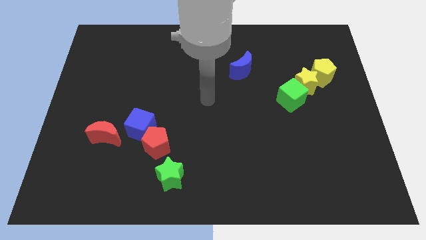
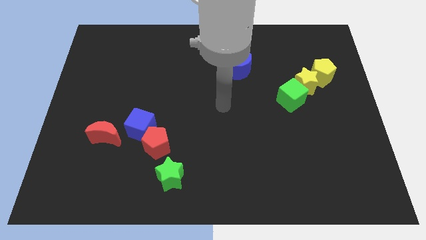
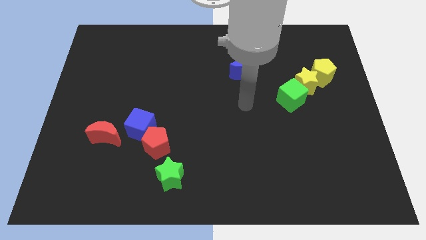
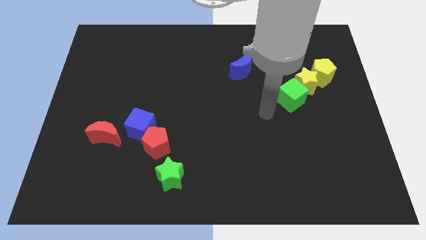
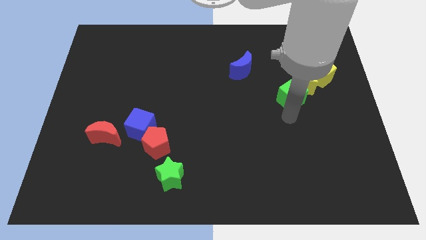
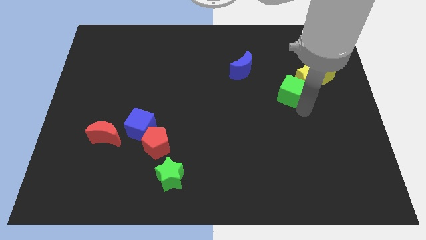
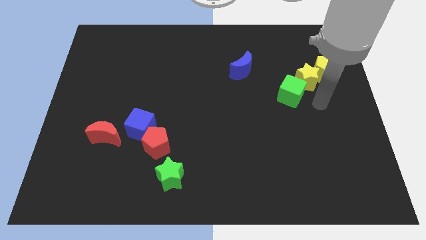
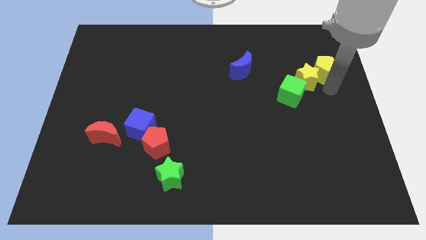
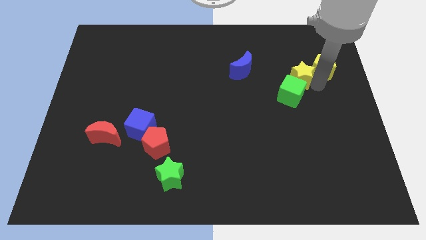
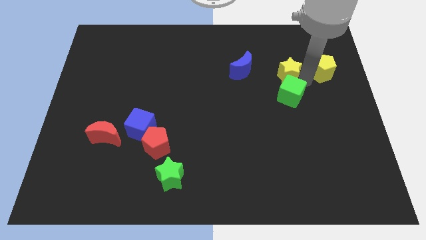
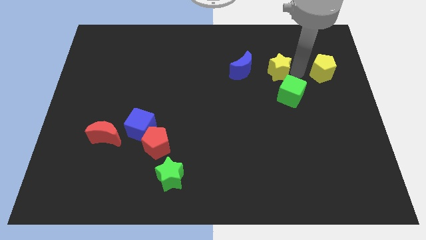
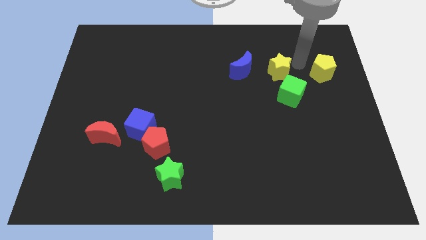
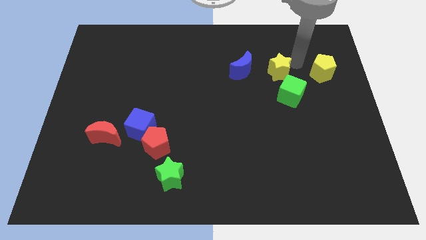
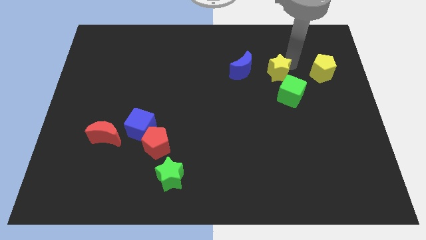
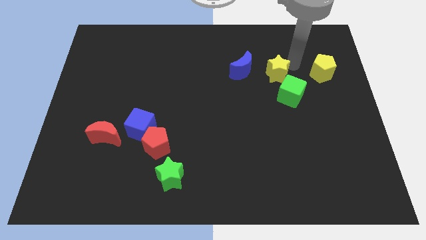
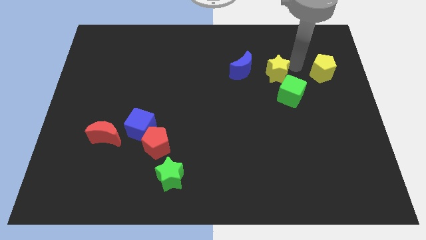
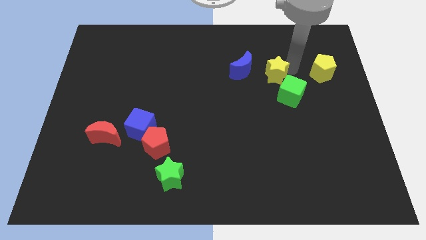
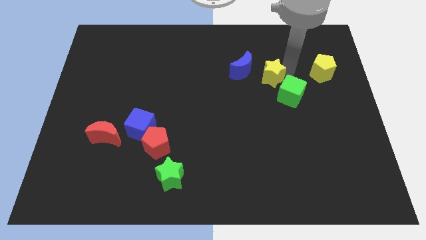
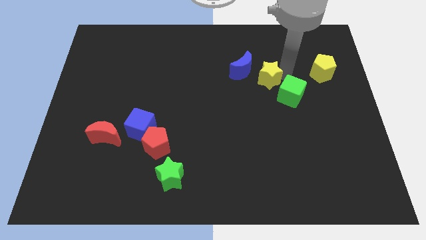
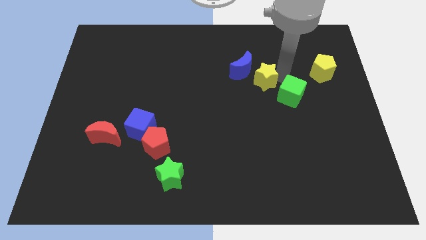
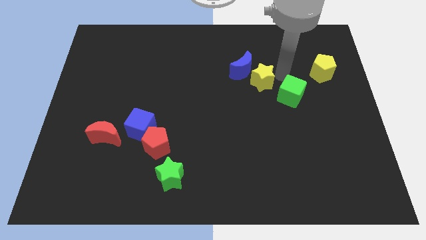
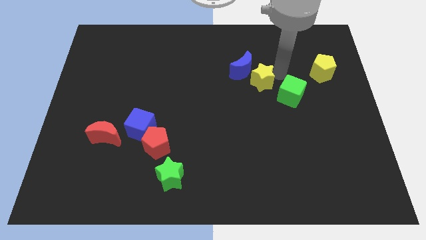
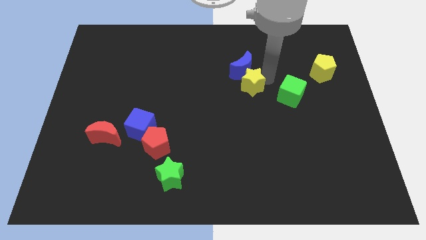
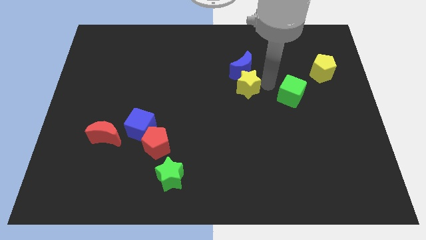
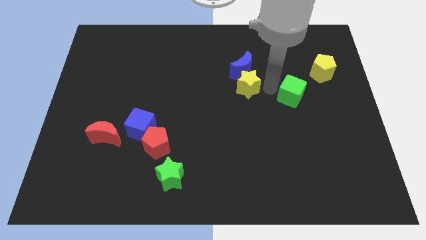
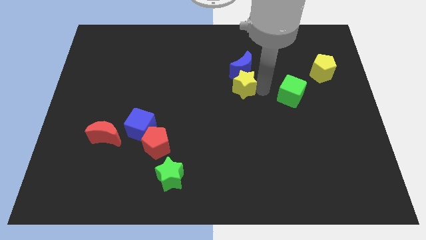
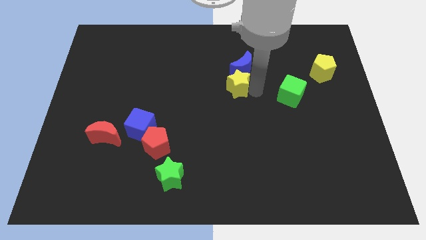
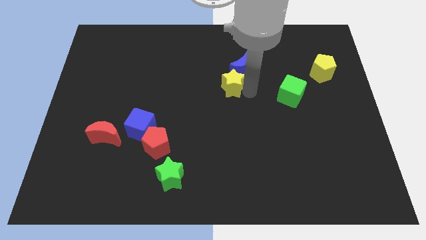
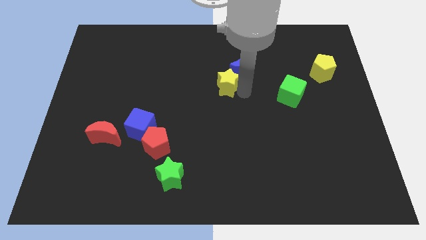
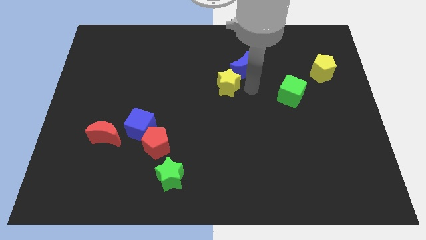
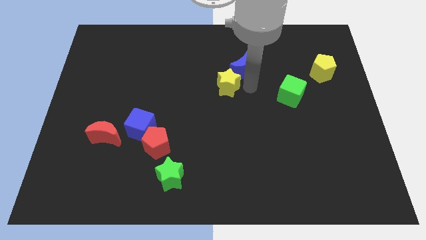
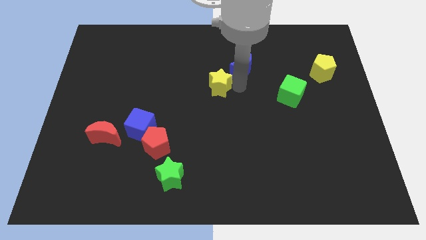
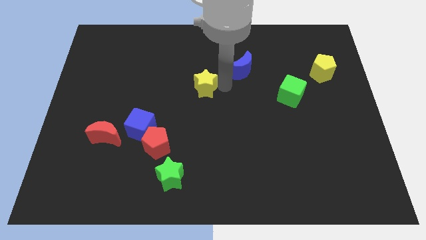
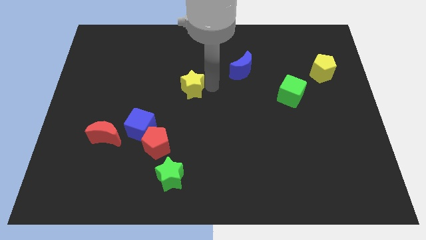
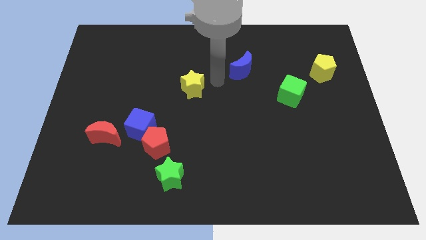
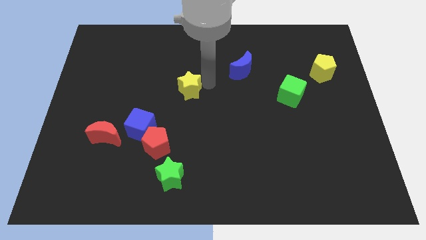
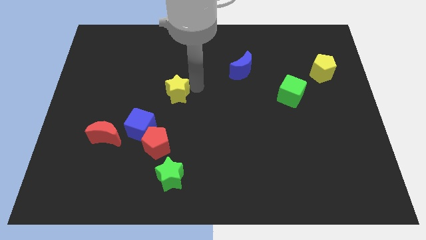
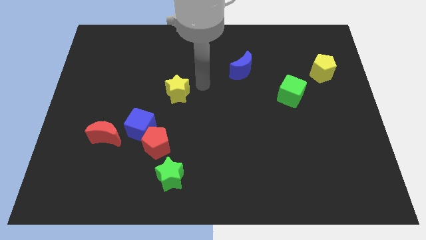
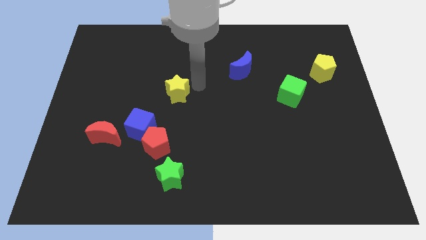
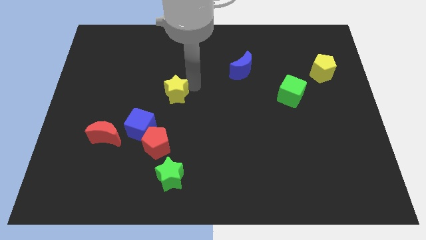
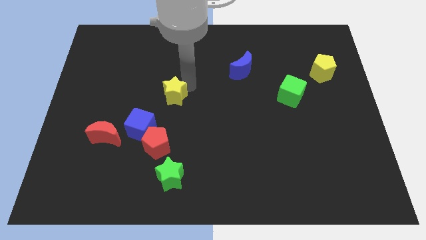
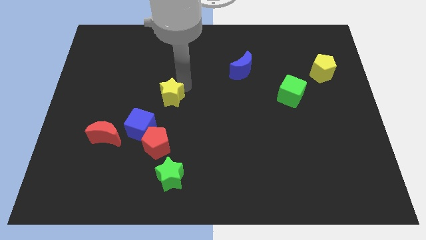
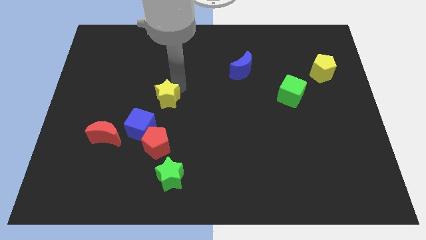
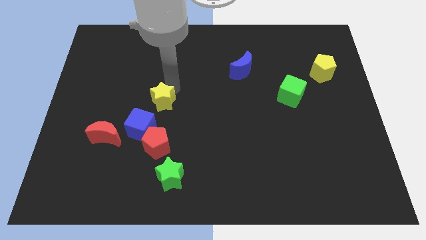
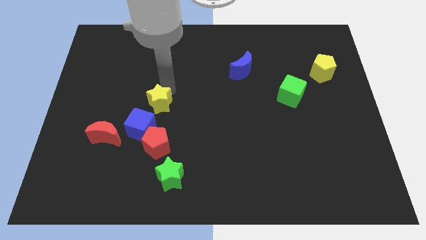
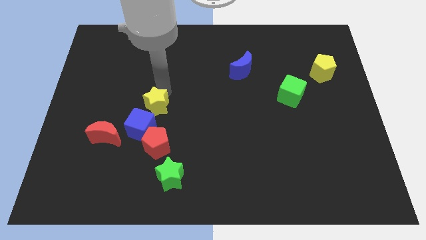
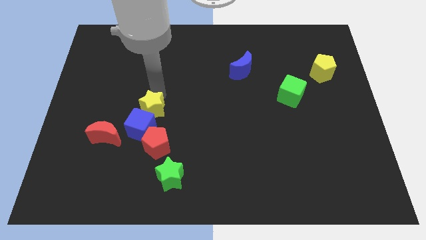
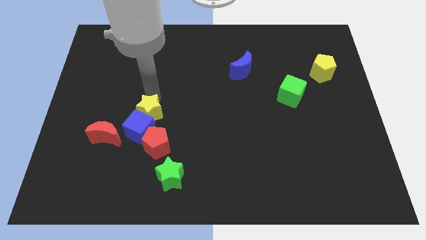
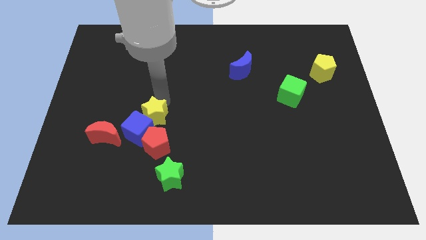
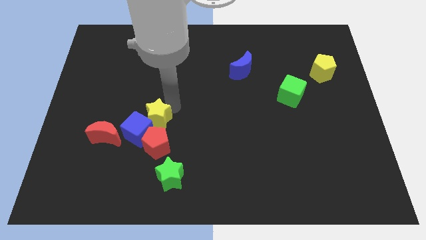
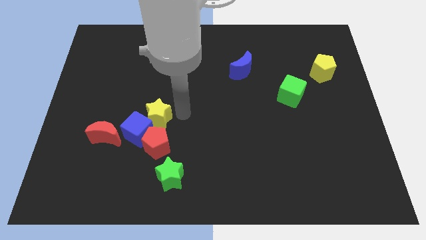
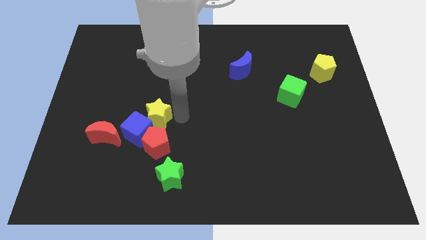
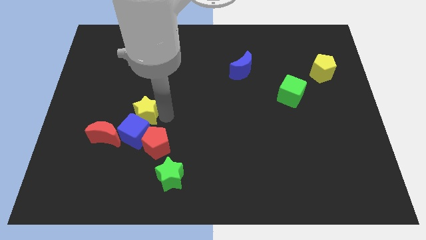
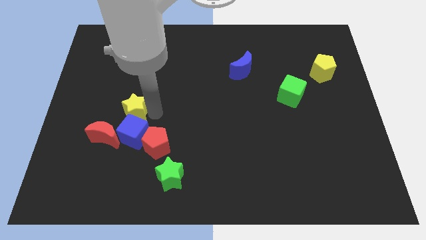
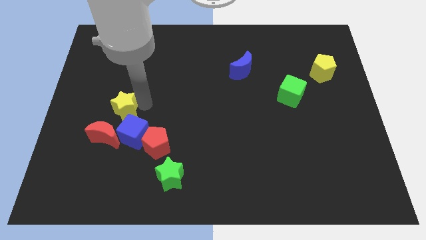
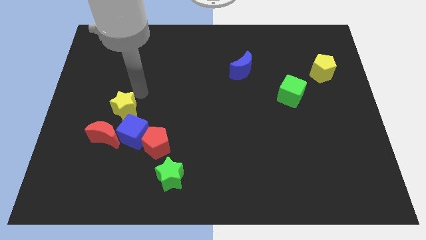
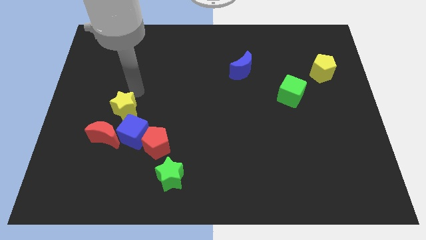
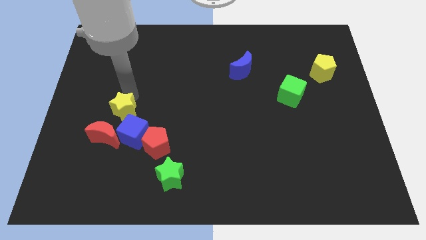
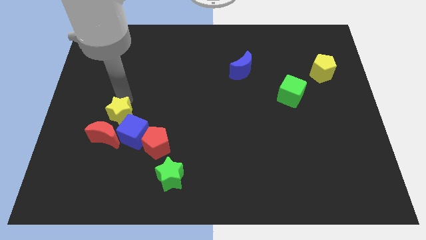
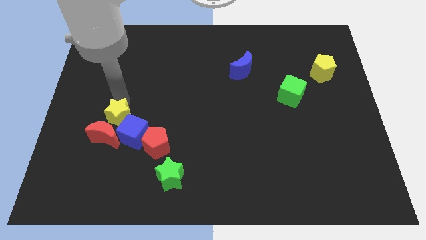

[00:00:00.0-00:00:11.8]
slide the yellow star towards the red moon

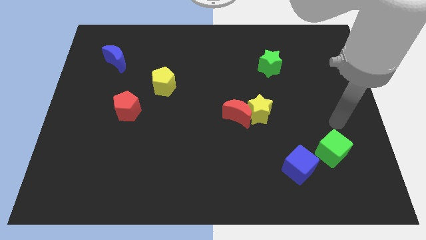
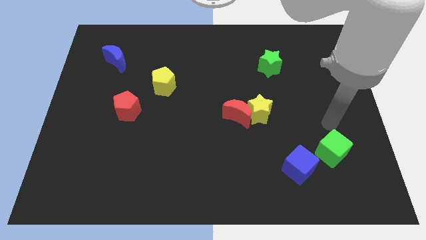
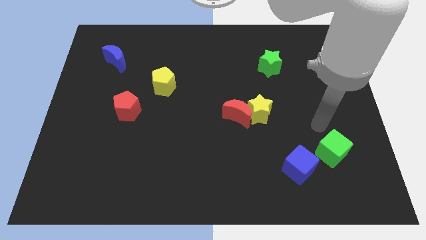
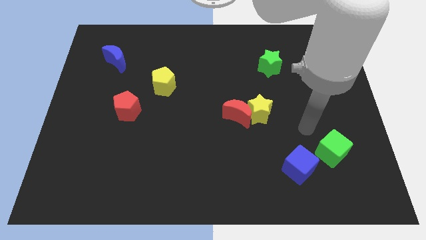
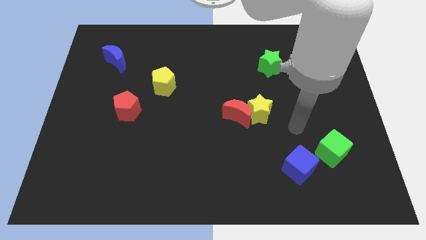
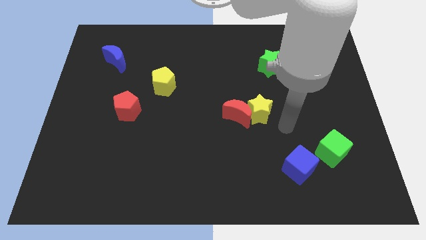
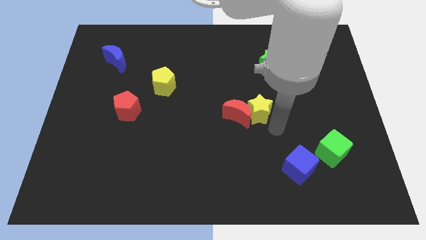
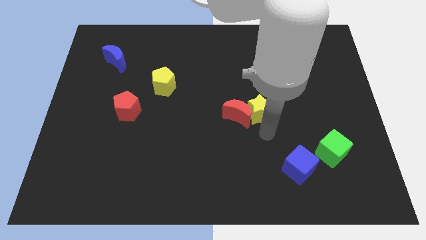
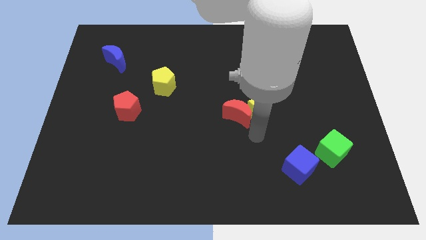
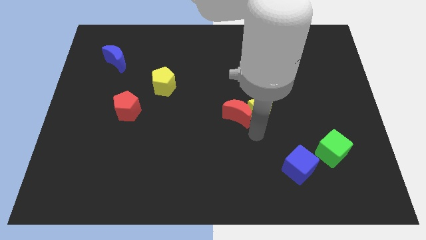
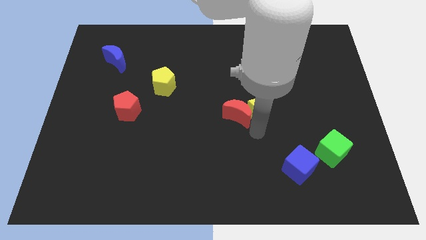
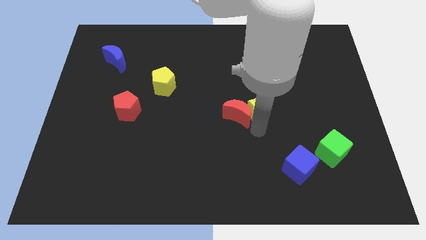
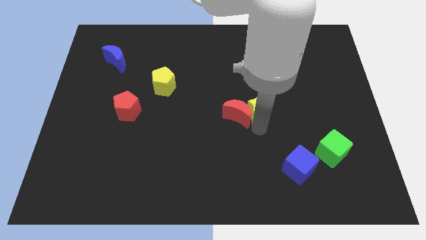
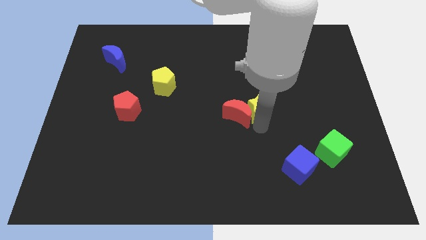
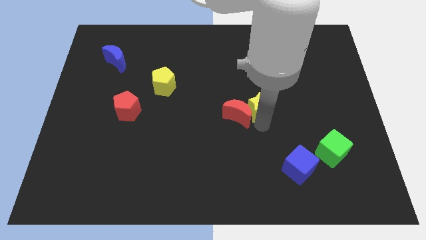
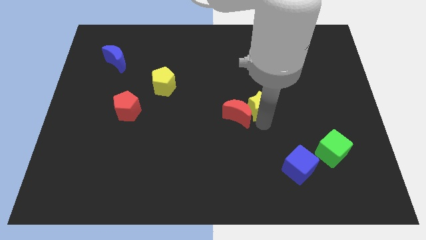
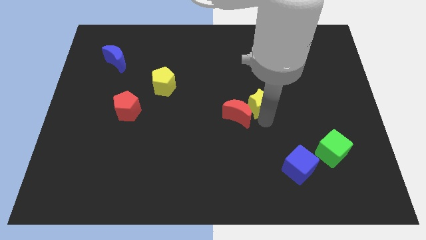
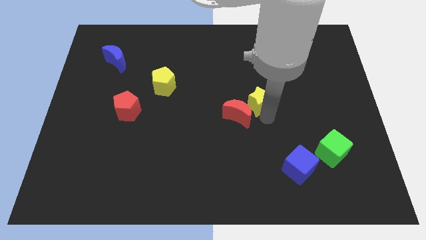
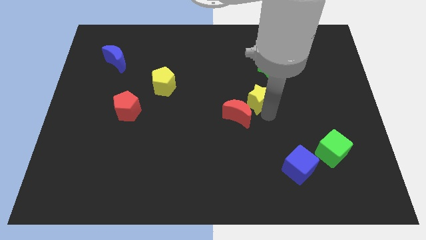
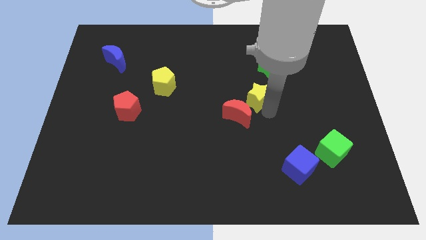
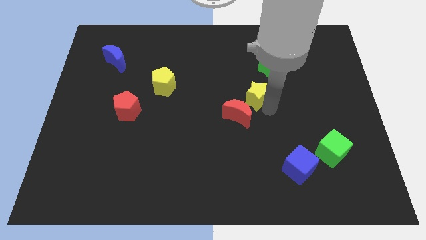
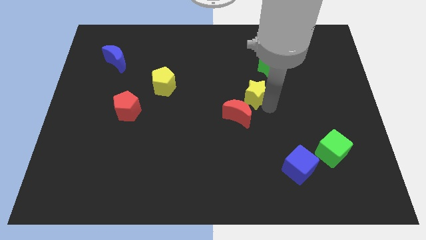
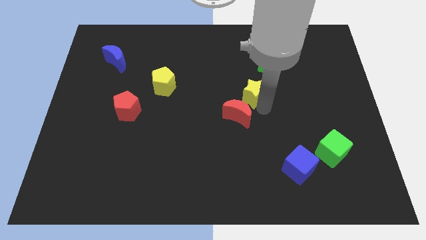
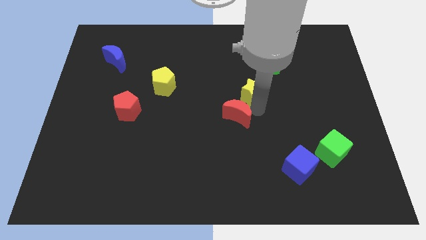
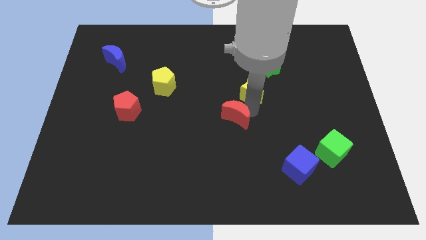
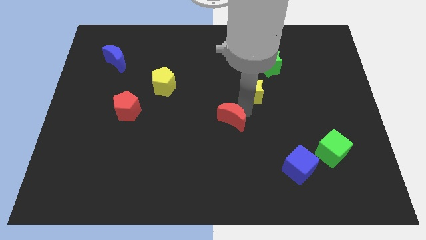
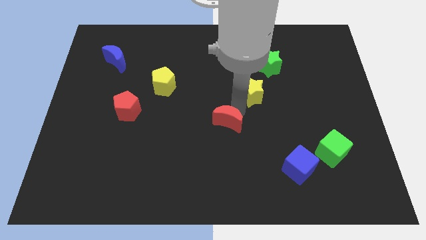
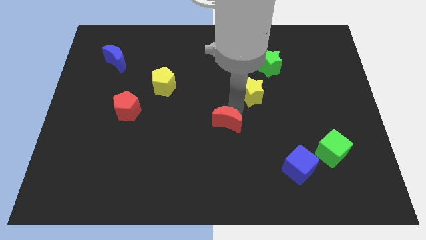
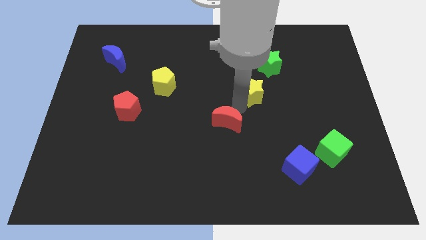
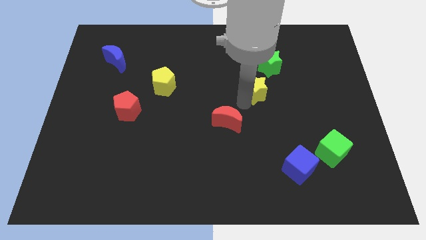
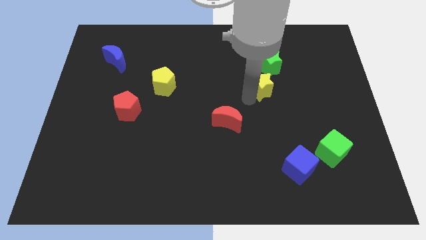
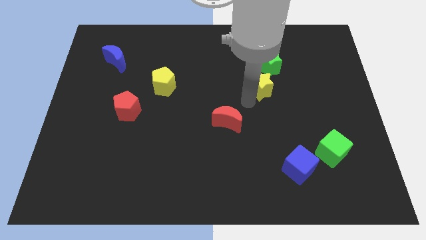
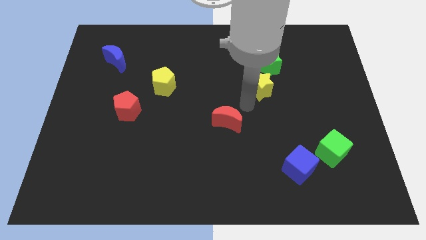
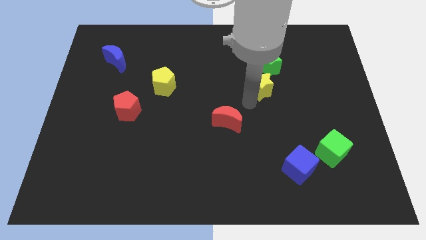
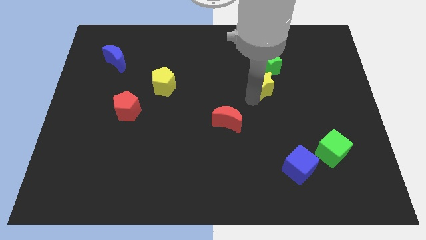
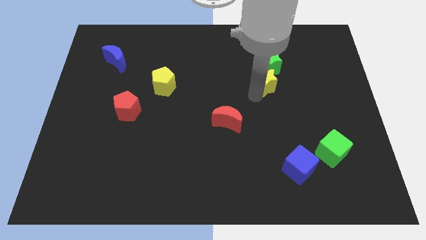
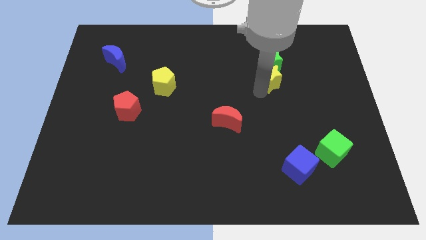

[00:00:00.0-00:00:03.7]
put the yellow star towards the green star
